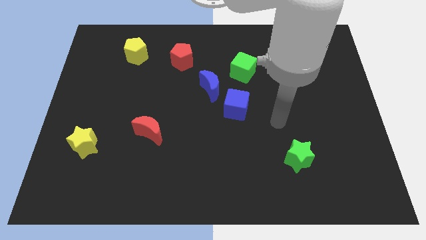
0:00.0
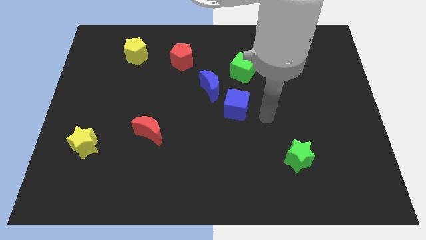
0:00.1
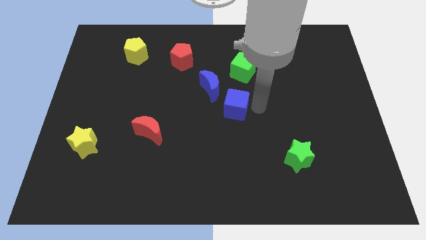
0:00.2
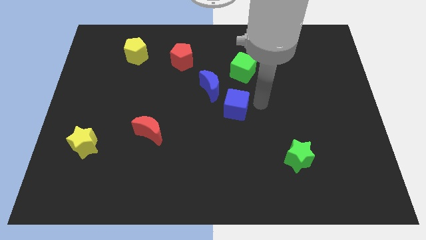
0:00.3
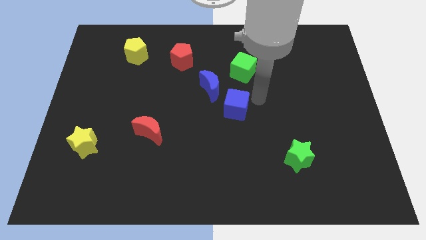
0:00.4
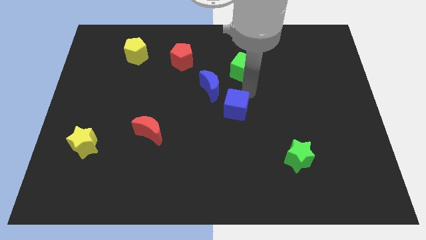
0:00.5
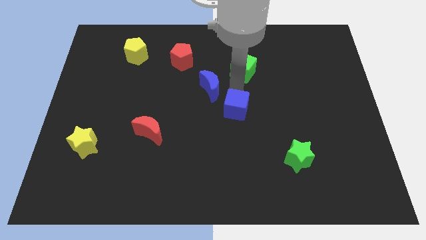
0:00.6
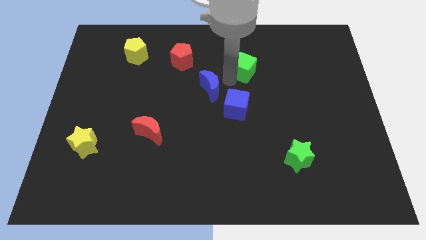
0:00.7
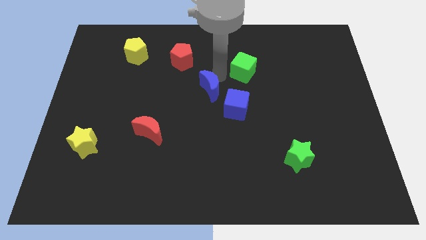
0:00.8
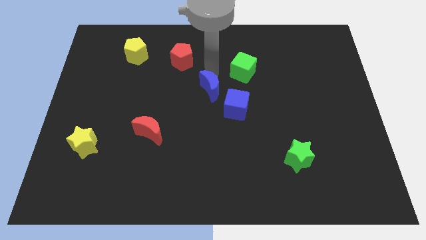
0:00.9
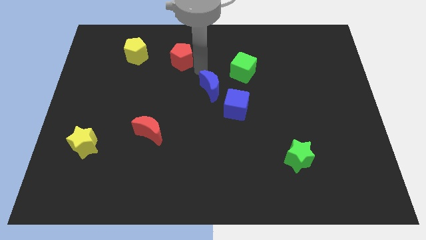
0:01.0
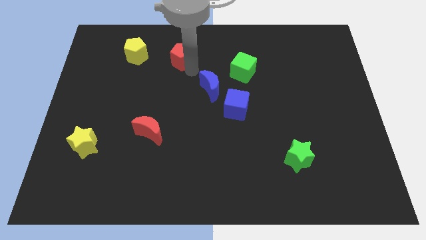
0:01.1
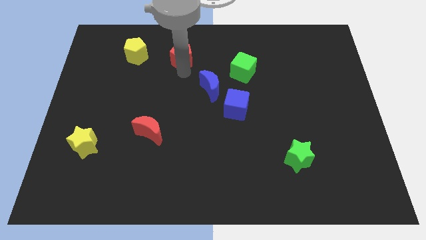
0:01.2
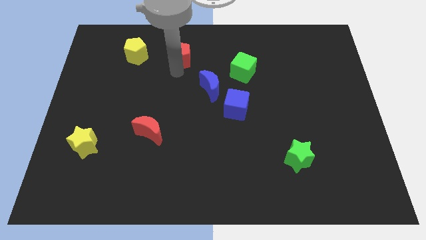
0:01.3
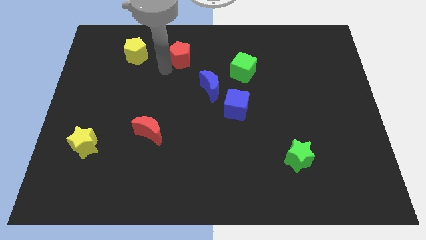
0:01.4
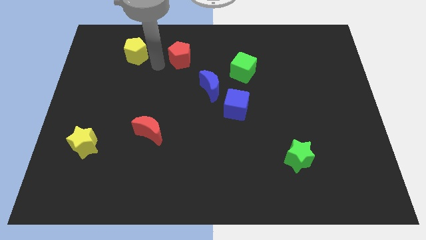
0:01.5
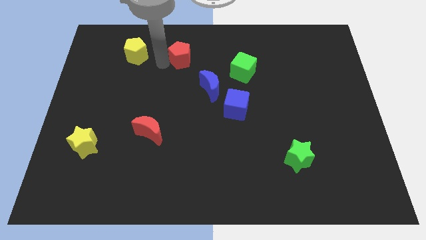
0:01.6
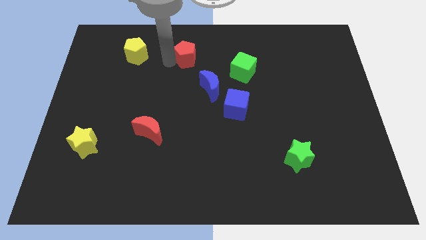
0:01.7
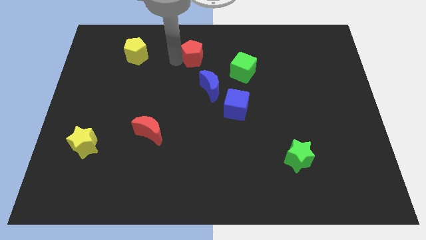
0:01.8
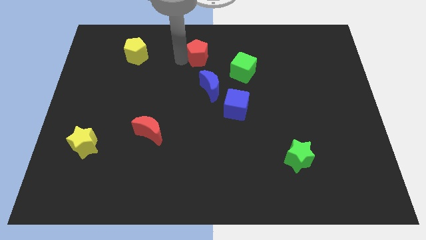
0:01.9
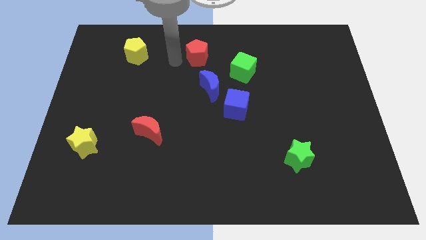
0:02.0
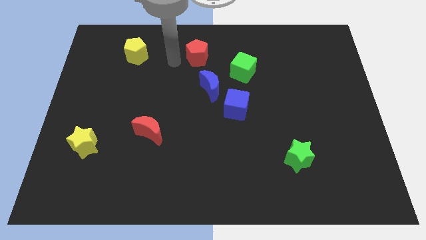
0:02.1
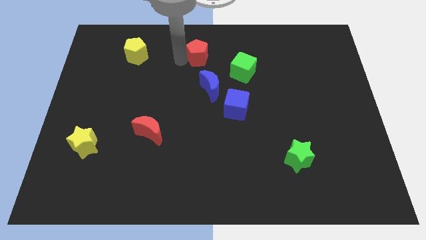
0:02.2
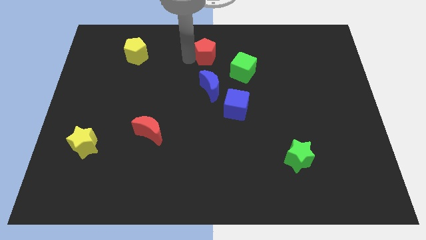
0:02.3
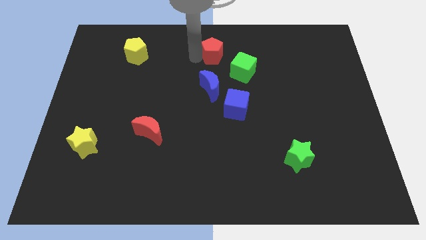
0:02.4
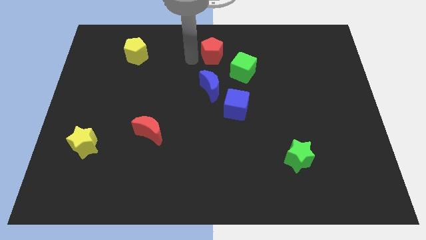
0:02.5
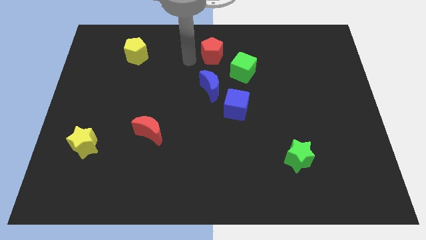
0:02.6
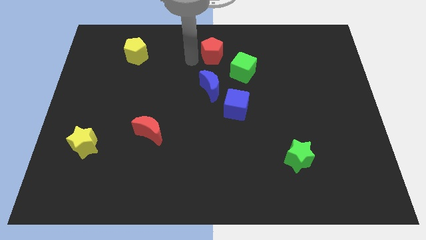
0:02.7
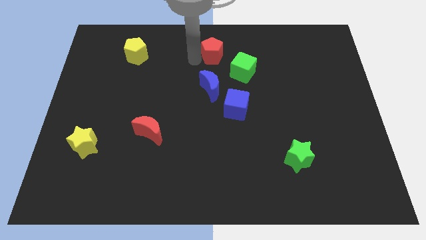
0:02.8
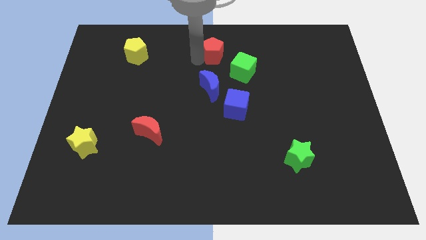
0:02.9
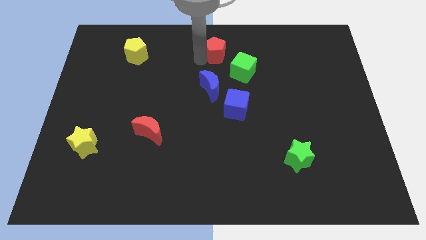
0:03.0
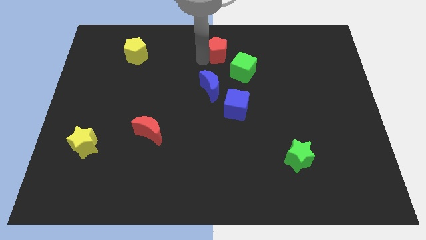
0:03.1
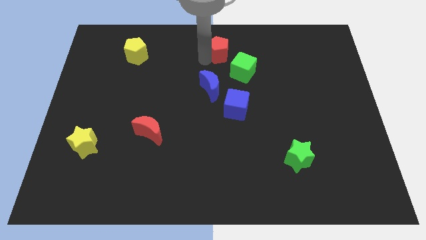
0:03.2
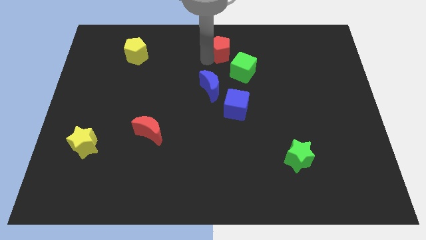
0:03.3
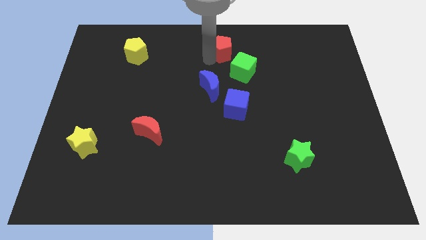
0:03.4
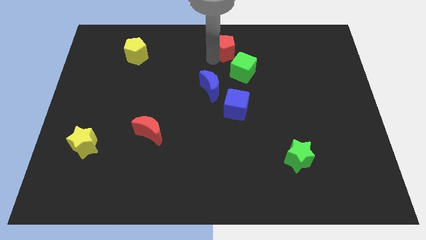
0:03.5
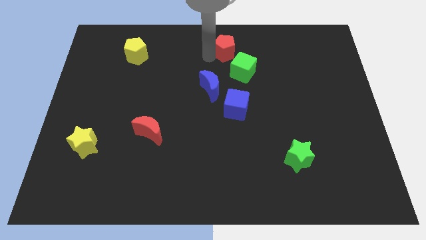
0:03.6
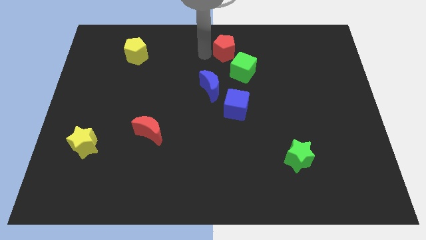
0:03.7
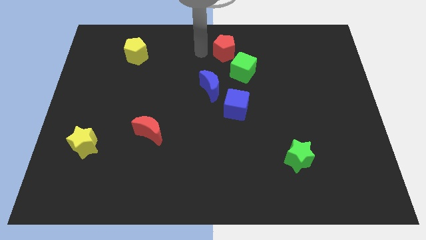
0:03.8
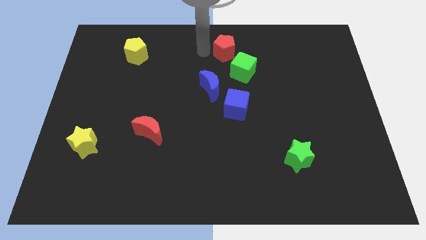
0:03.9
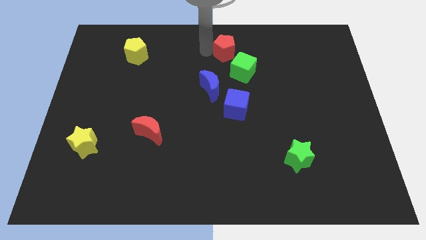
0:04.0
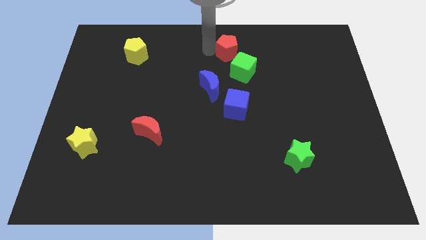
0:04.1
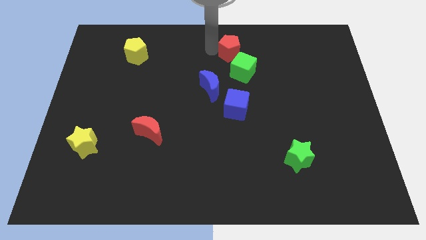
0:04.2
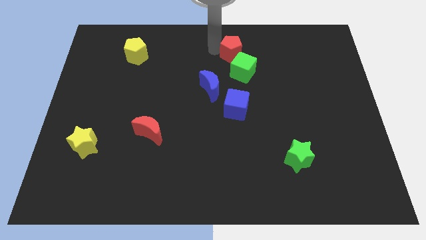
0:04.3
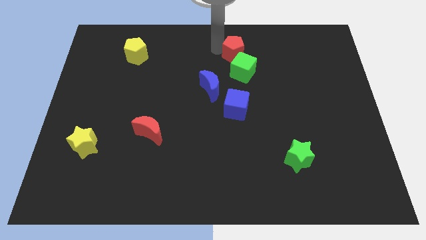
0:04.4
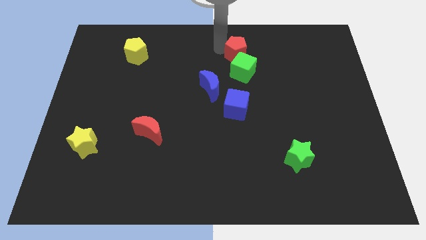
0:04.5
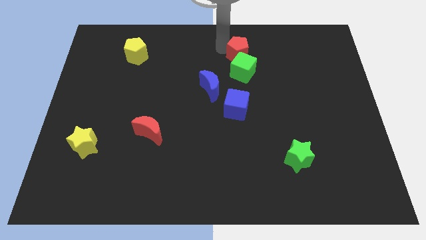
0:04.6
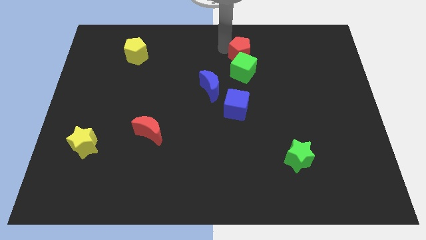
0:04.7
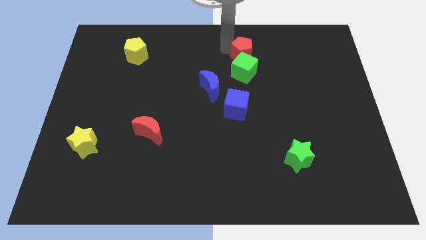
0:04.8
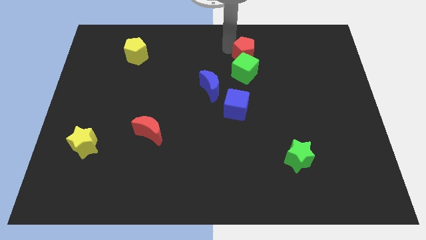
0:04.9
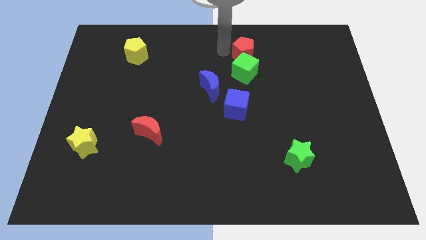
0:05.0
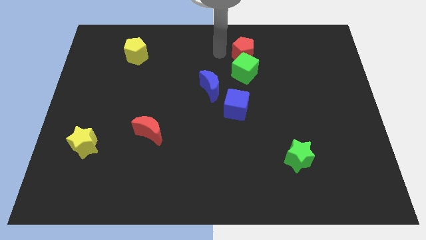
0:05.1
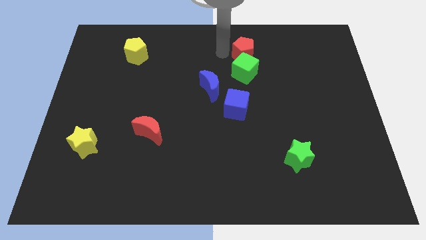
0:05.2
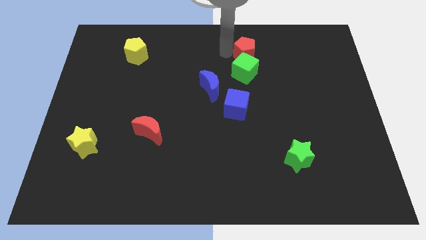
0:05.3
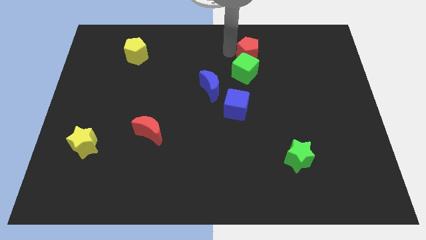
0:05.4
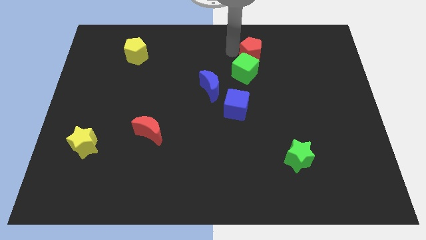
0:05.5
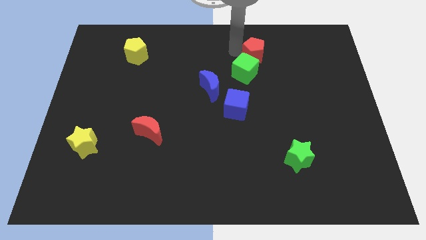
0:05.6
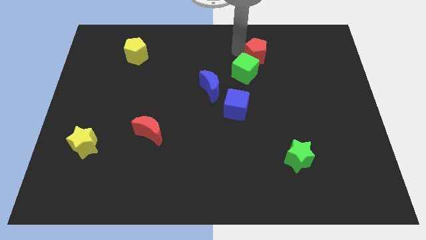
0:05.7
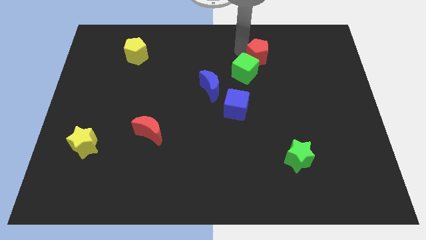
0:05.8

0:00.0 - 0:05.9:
slide the red pentagon to the right

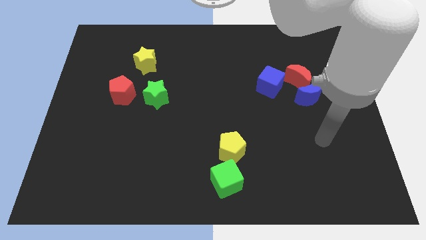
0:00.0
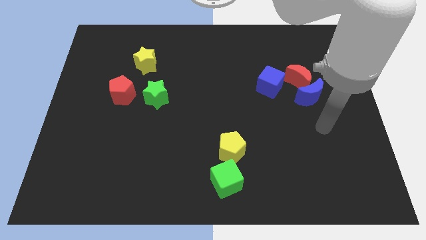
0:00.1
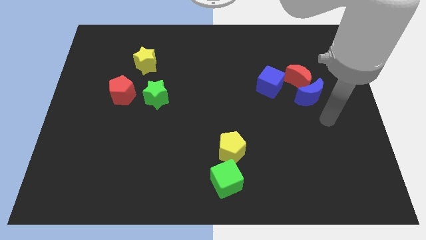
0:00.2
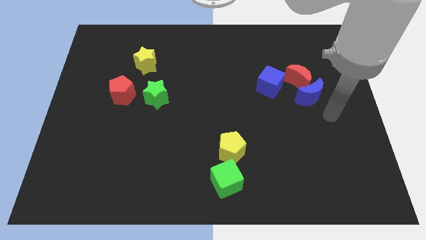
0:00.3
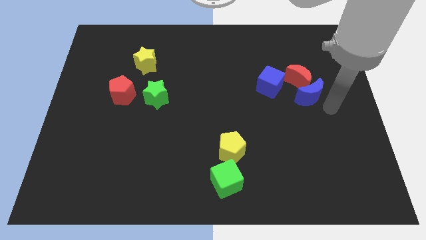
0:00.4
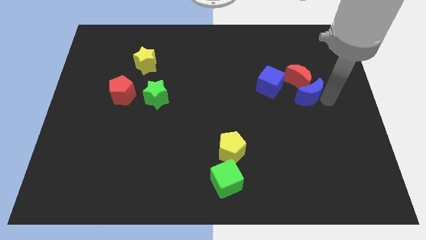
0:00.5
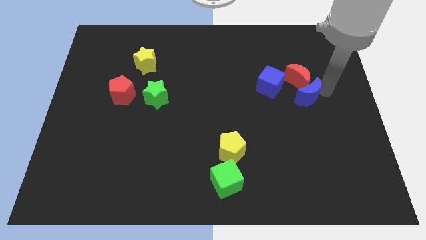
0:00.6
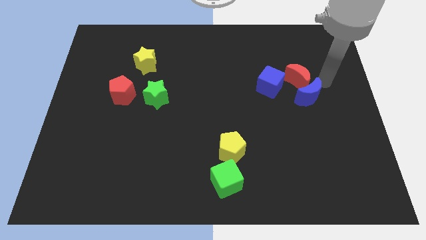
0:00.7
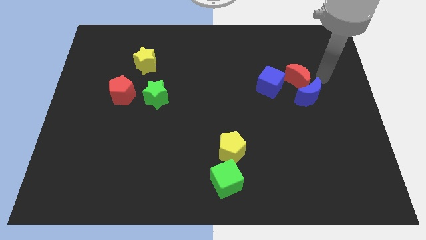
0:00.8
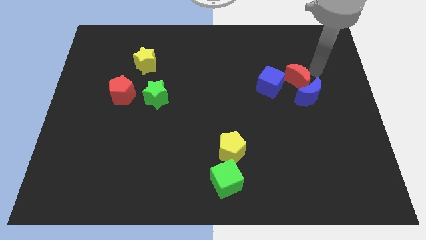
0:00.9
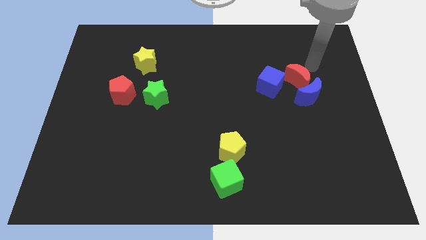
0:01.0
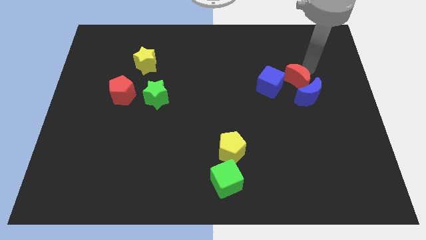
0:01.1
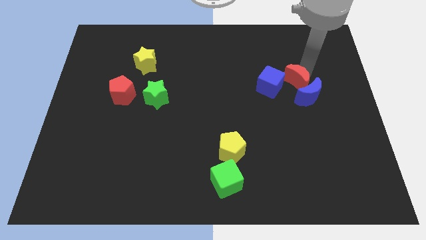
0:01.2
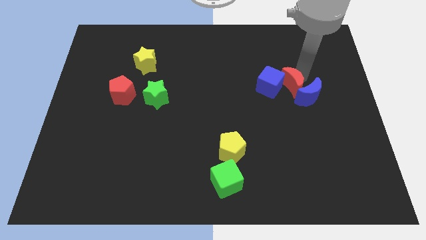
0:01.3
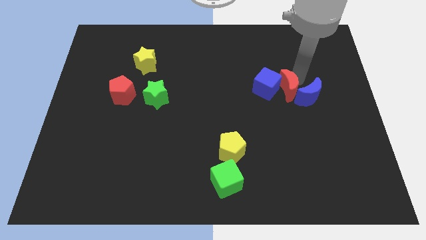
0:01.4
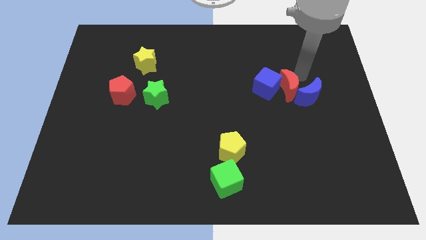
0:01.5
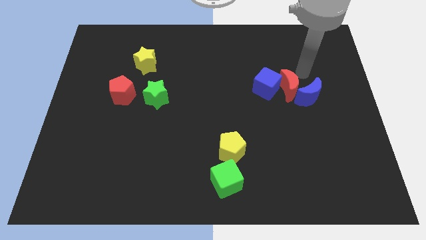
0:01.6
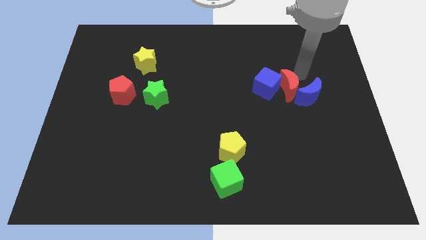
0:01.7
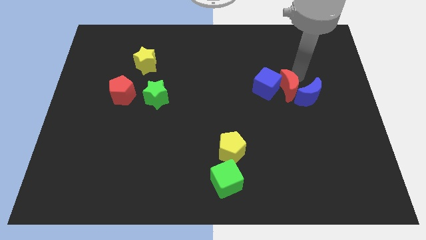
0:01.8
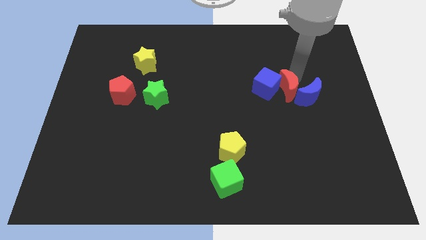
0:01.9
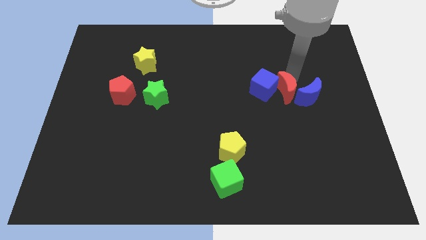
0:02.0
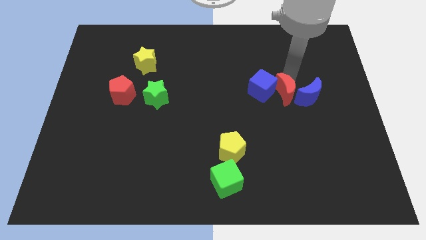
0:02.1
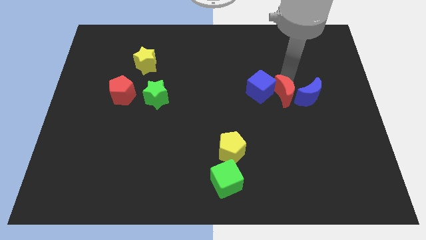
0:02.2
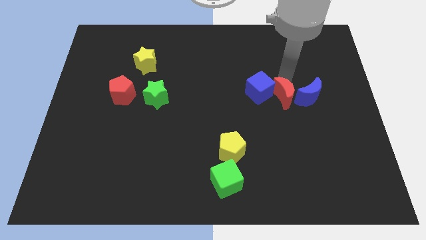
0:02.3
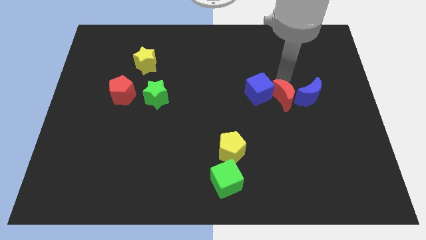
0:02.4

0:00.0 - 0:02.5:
slide the red moon down and then to the left a bit
